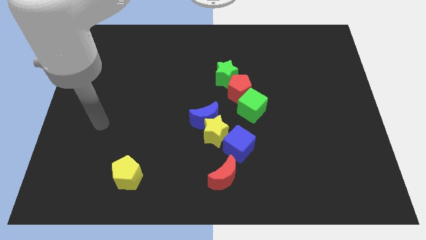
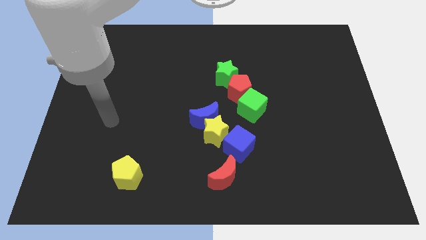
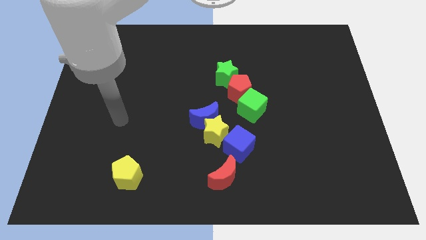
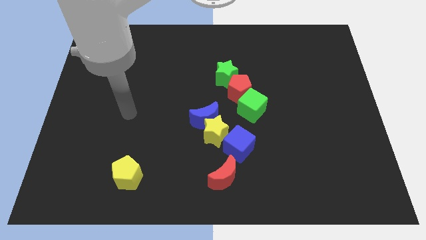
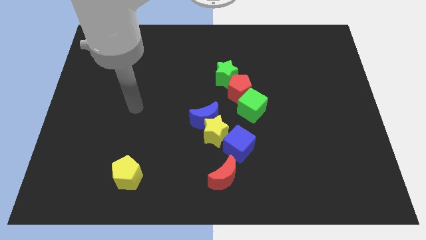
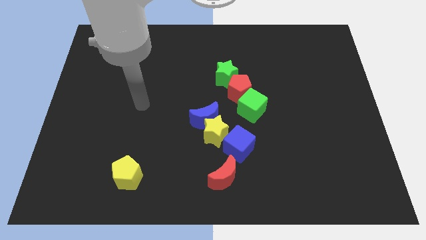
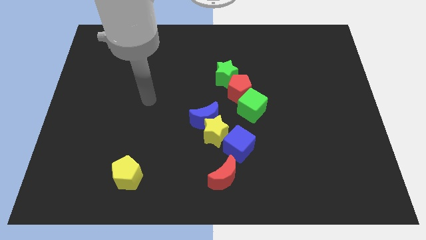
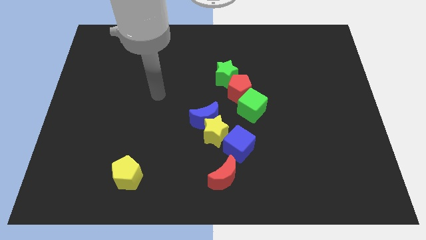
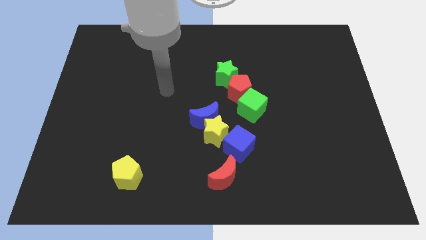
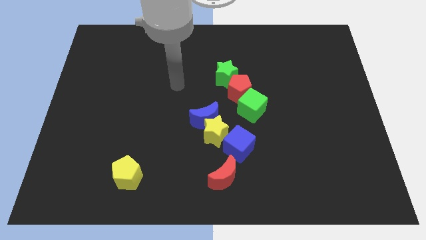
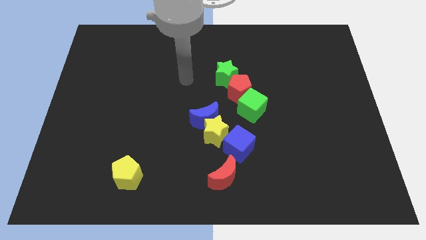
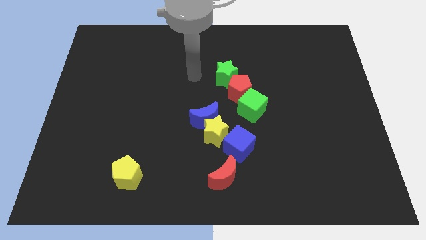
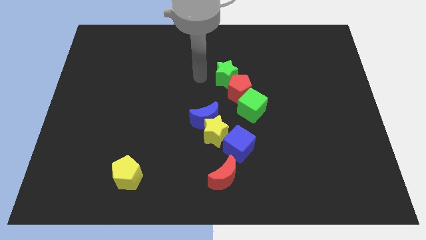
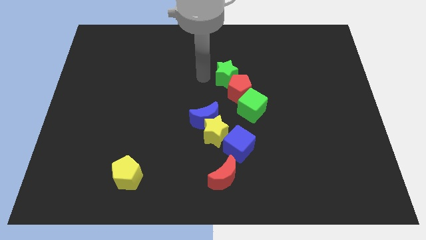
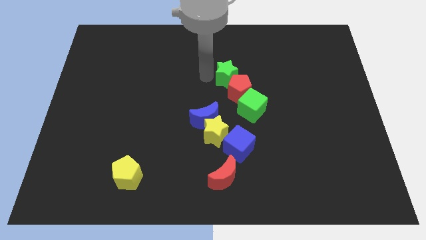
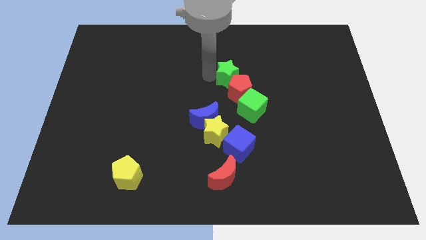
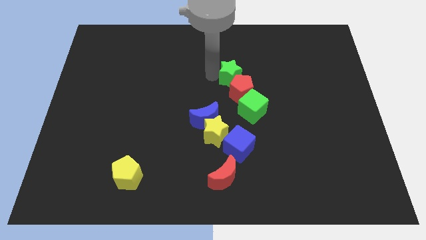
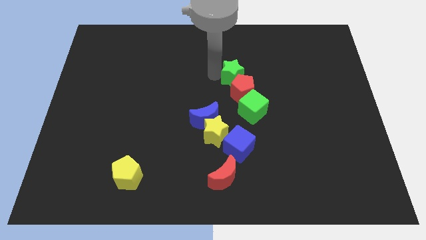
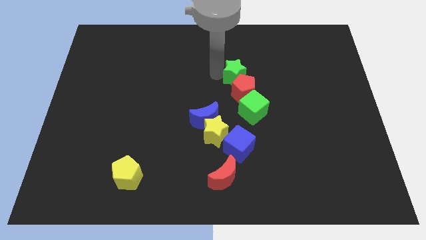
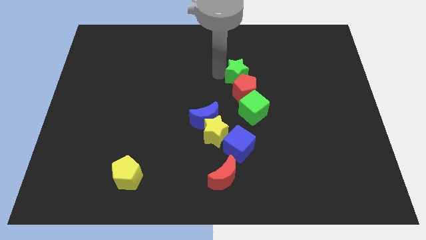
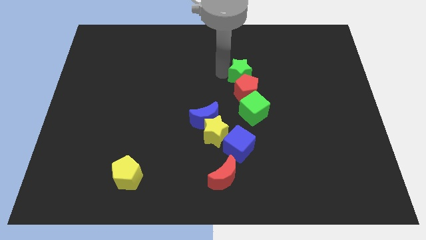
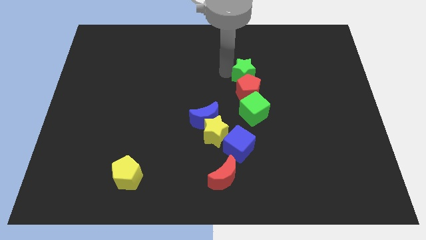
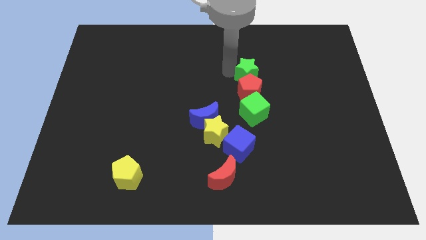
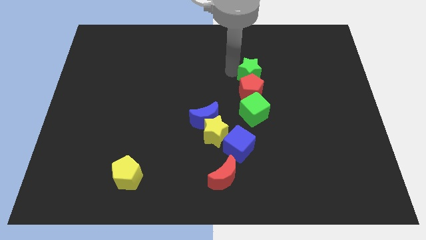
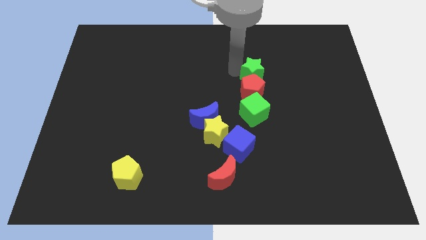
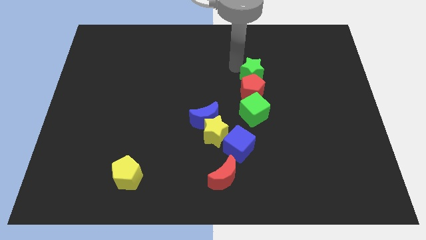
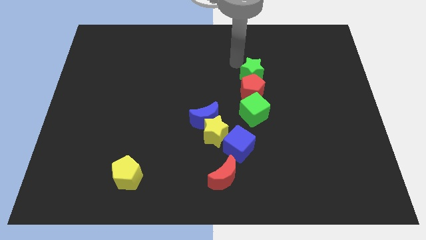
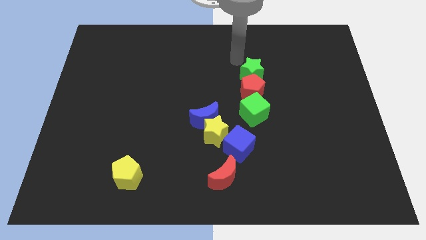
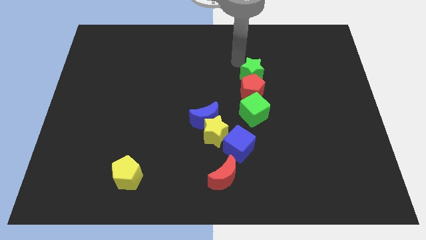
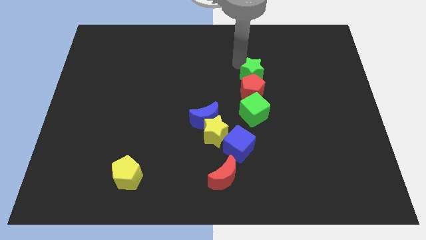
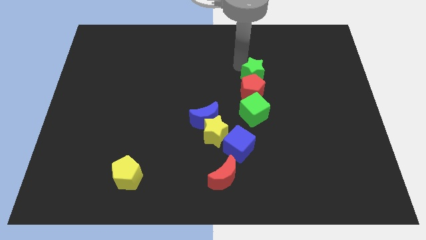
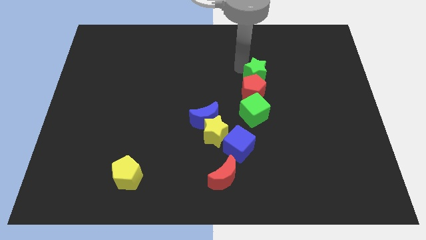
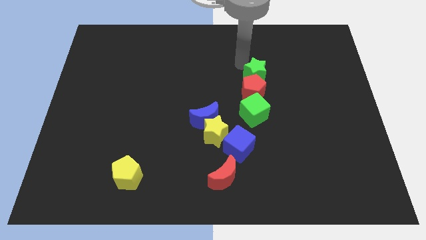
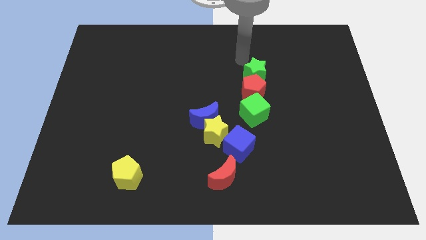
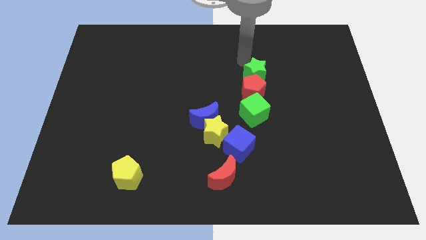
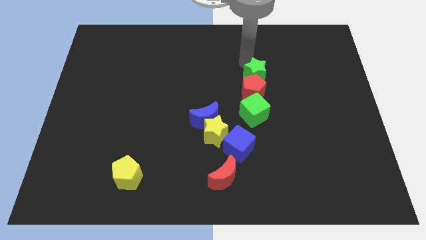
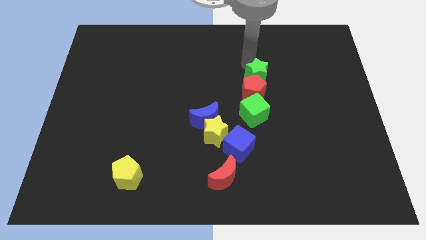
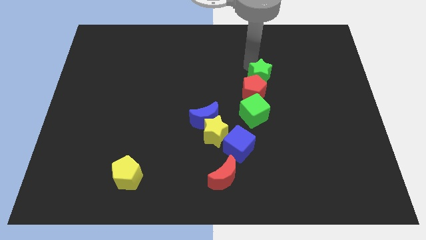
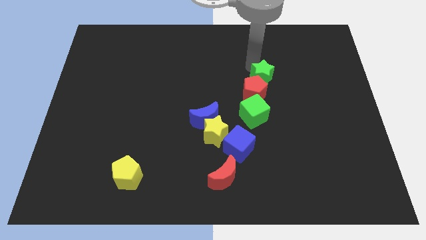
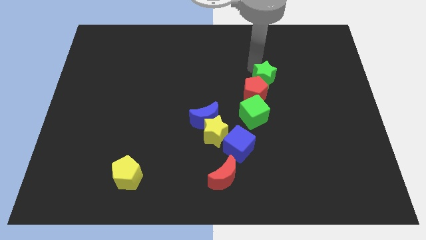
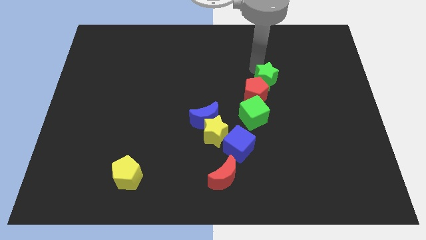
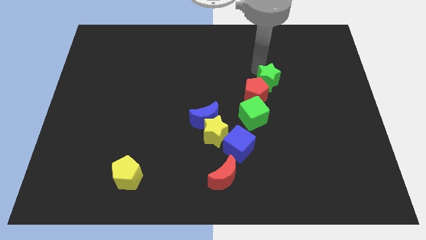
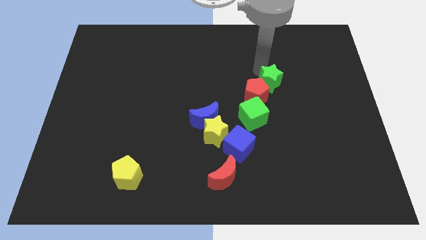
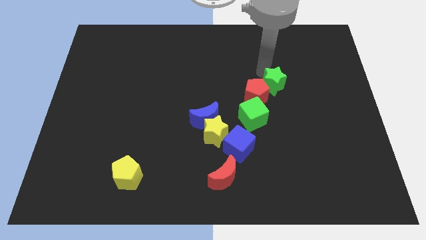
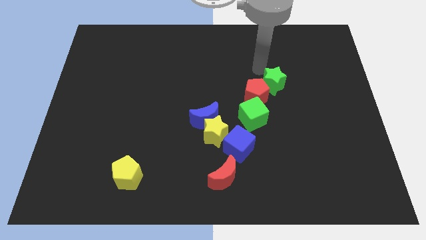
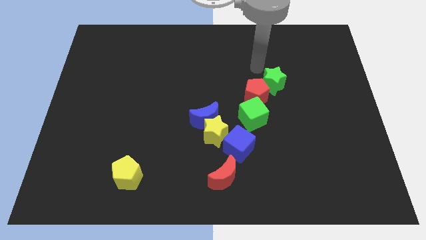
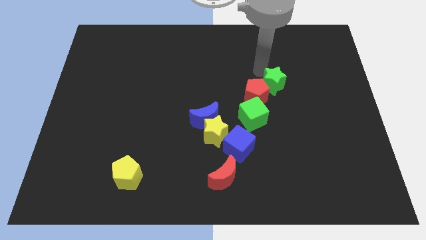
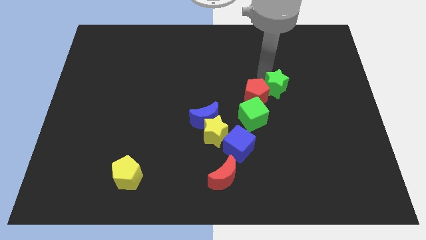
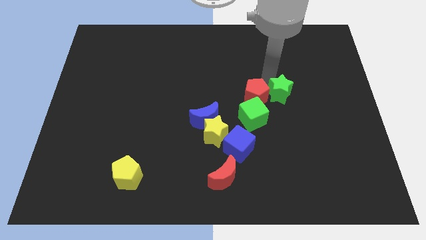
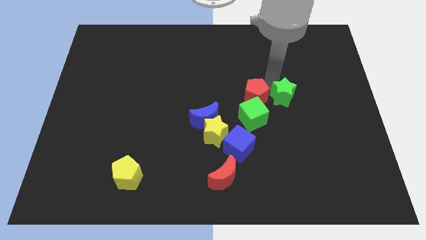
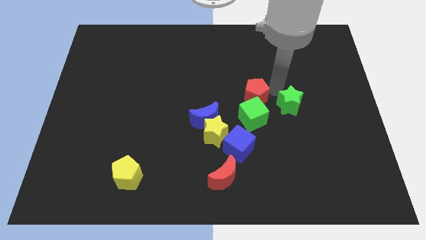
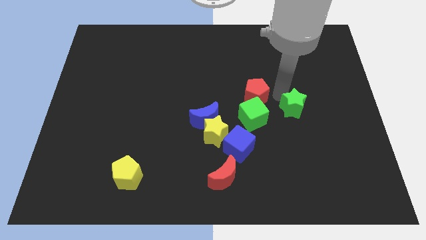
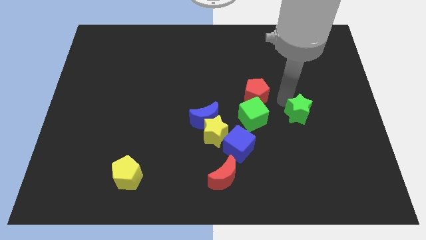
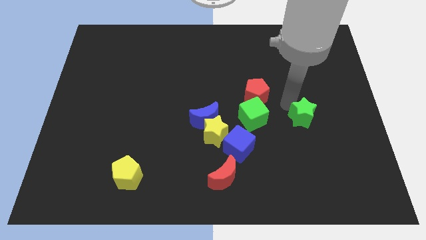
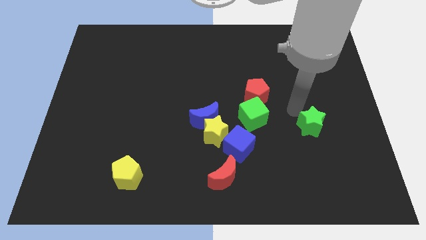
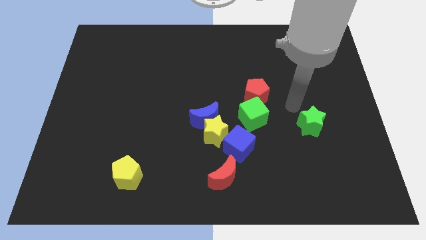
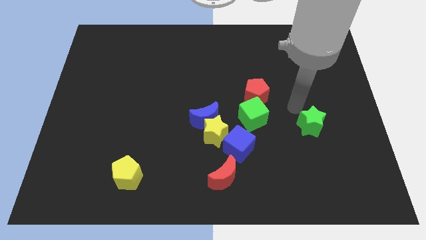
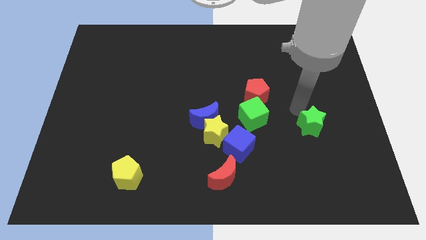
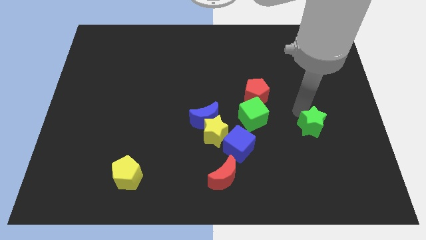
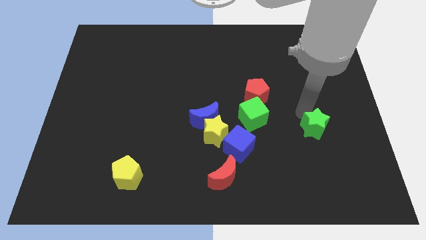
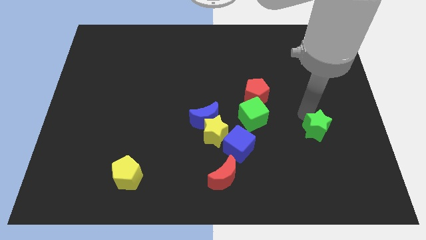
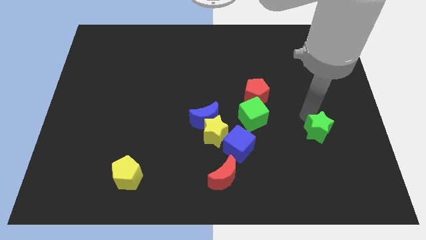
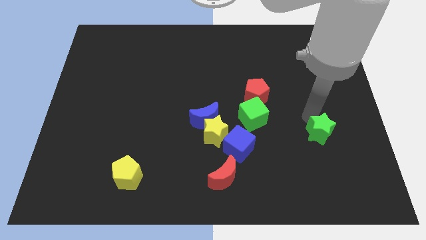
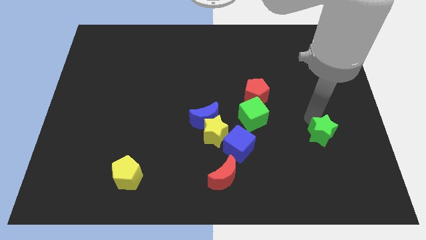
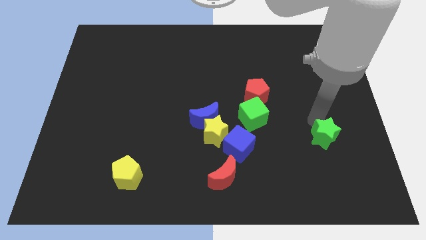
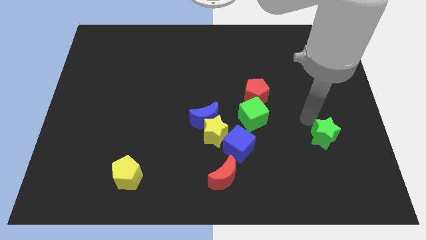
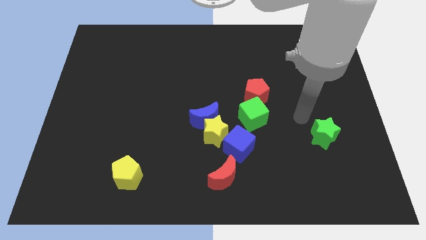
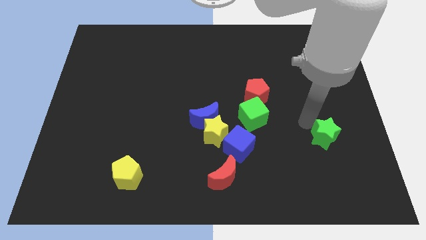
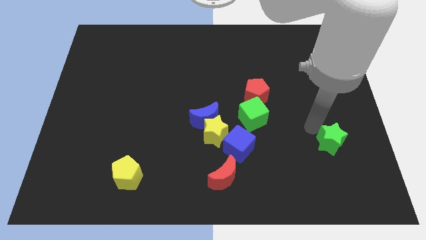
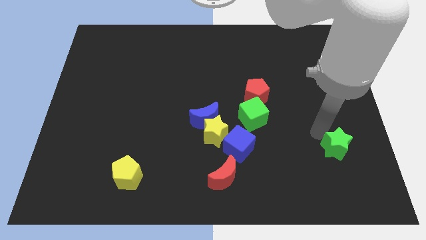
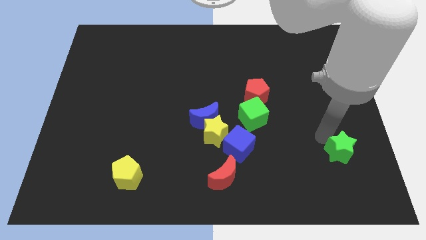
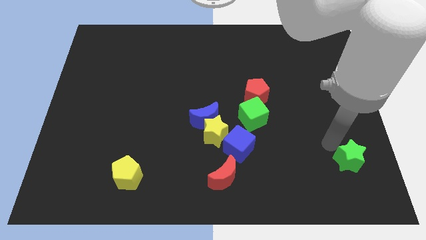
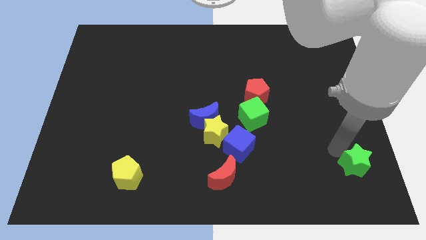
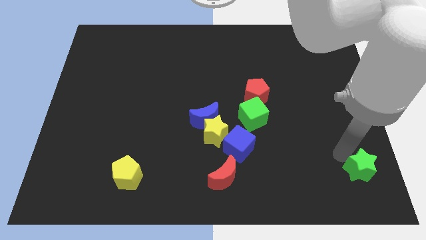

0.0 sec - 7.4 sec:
push the green star to the bottom right of the board
